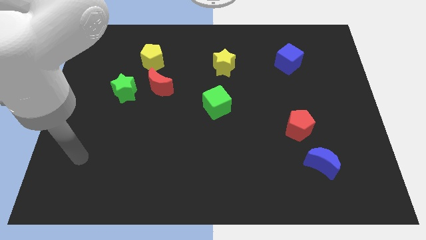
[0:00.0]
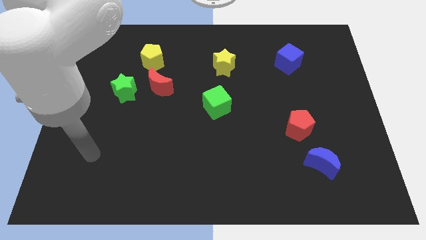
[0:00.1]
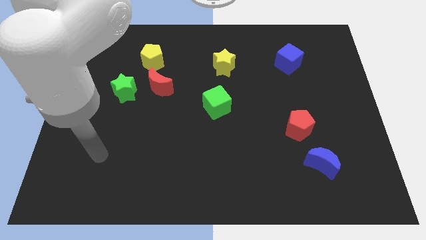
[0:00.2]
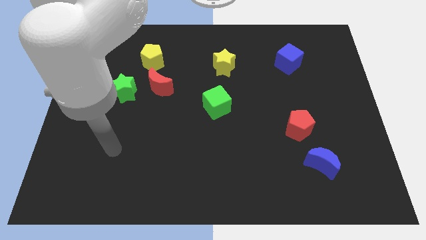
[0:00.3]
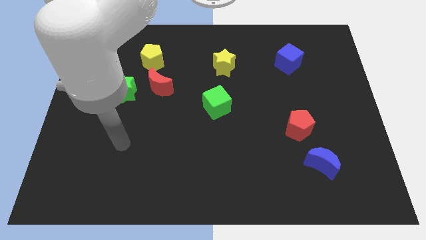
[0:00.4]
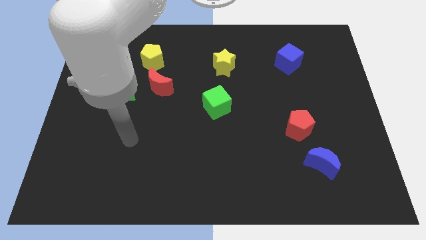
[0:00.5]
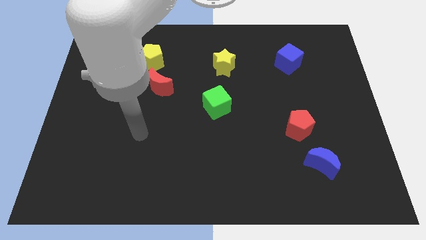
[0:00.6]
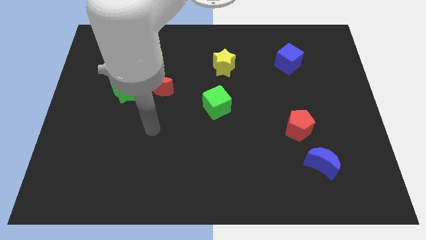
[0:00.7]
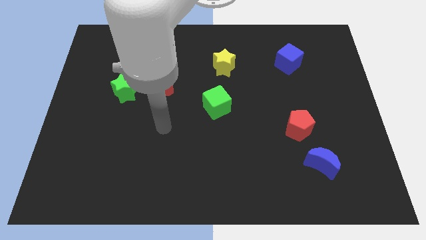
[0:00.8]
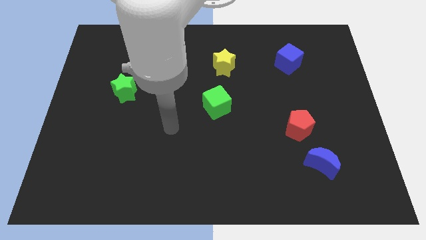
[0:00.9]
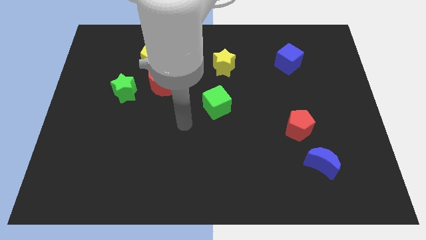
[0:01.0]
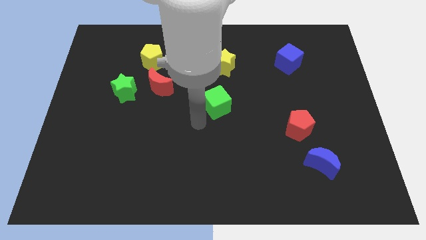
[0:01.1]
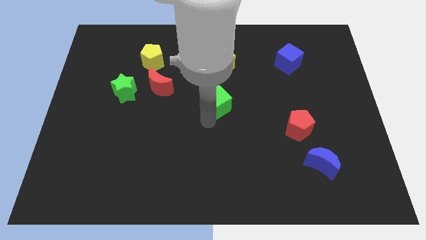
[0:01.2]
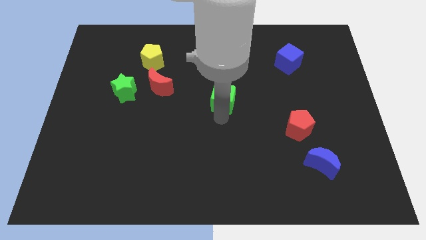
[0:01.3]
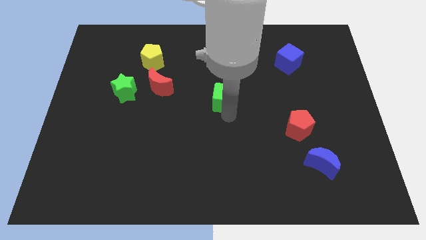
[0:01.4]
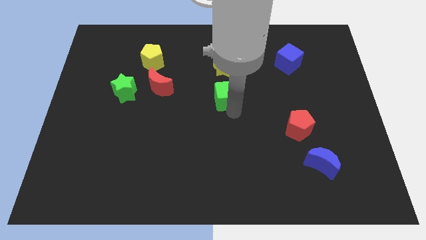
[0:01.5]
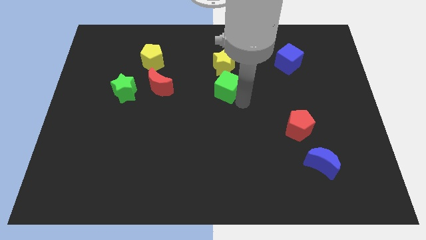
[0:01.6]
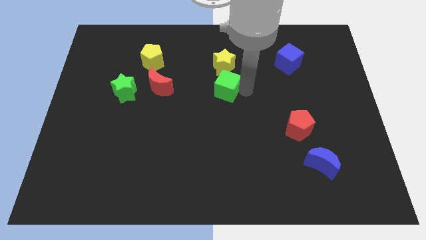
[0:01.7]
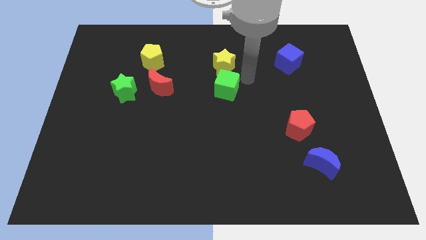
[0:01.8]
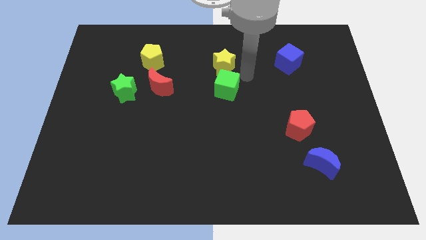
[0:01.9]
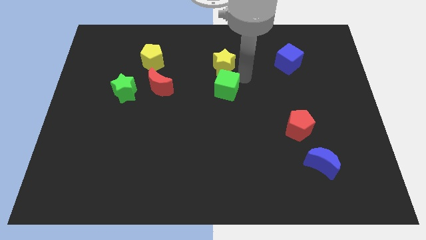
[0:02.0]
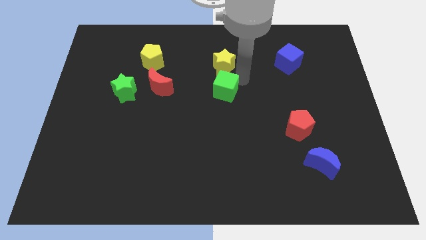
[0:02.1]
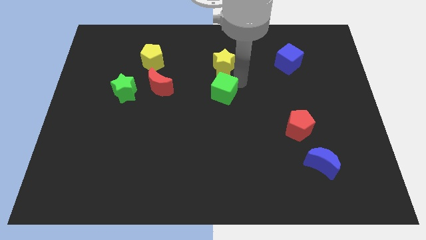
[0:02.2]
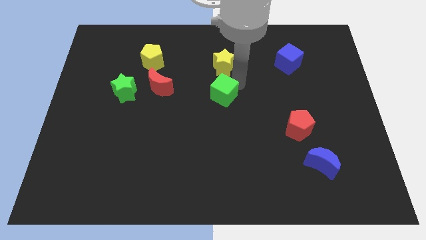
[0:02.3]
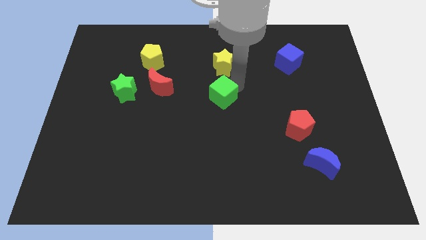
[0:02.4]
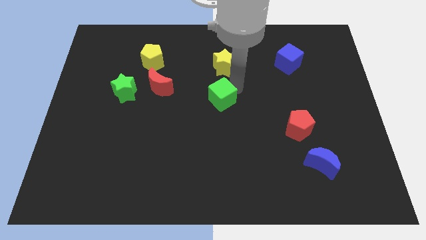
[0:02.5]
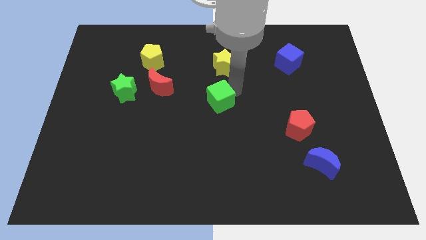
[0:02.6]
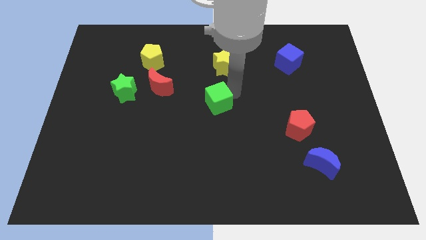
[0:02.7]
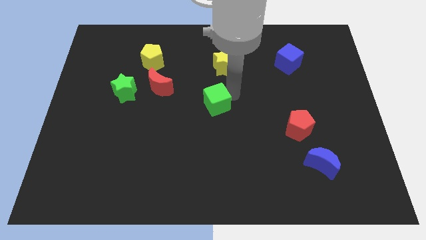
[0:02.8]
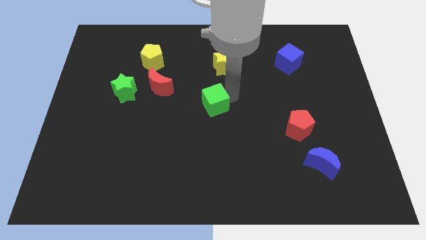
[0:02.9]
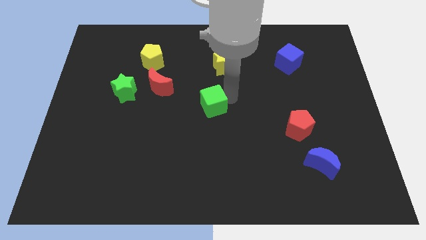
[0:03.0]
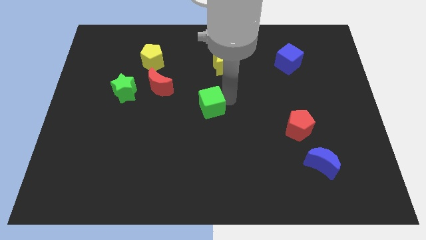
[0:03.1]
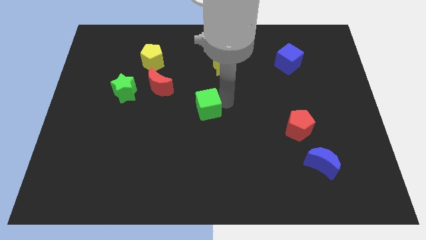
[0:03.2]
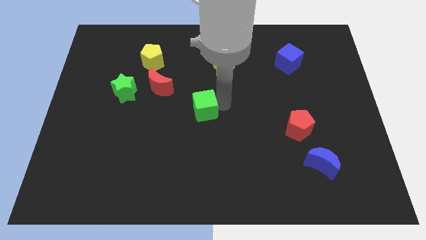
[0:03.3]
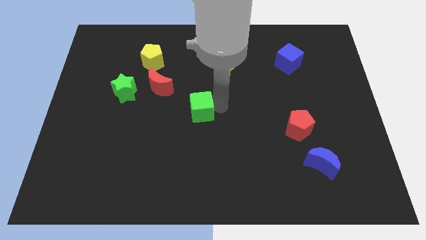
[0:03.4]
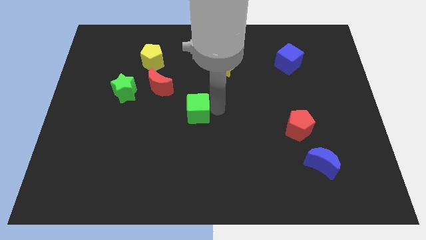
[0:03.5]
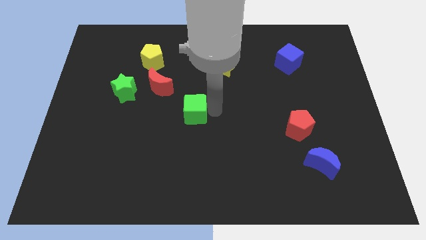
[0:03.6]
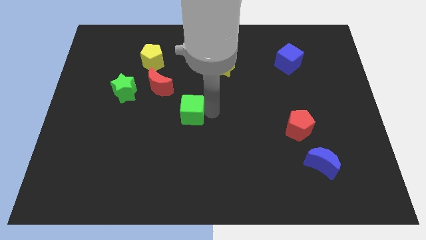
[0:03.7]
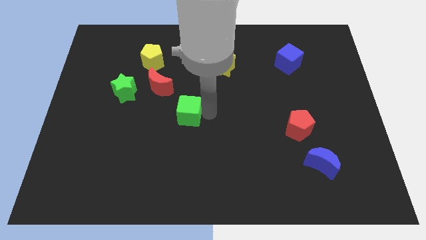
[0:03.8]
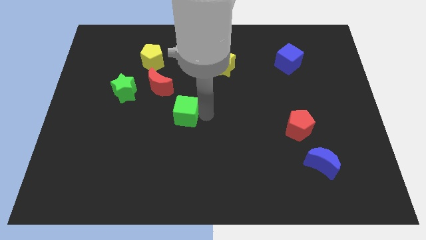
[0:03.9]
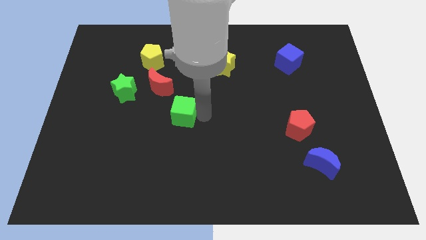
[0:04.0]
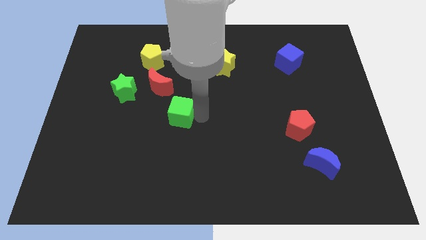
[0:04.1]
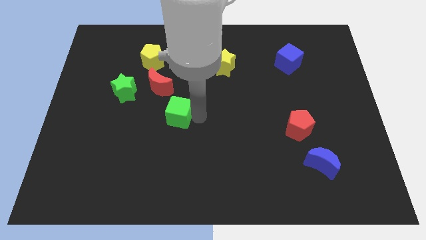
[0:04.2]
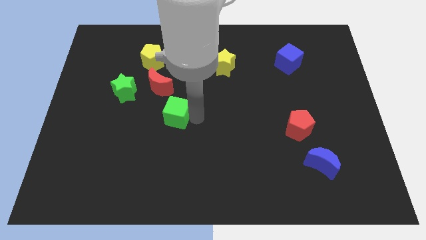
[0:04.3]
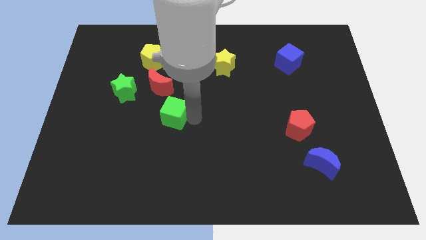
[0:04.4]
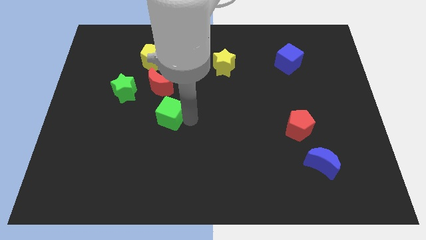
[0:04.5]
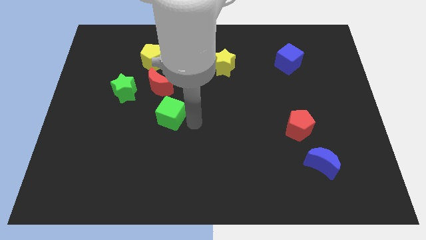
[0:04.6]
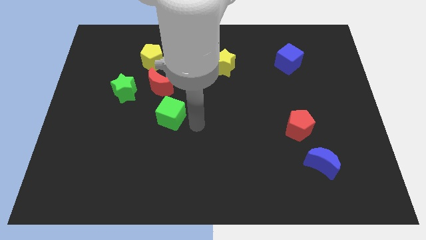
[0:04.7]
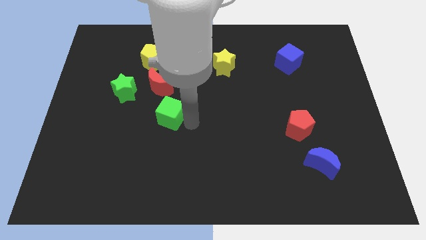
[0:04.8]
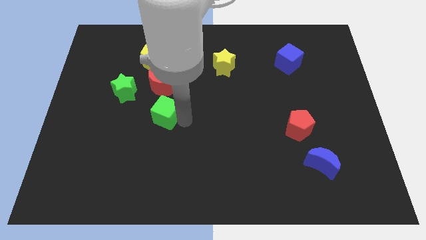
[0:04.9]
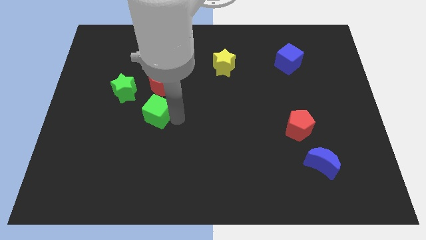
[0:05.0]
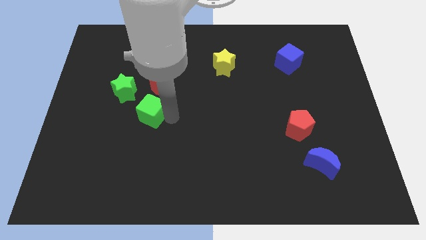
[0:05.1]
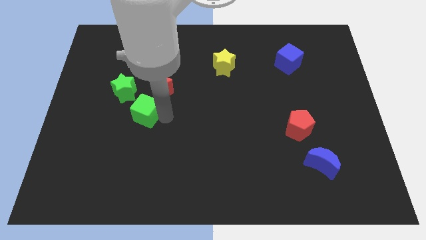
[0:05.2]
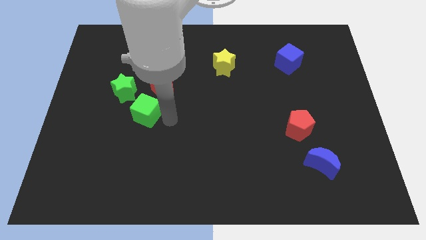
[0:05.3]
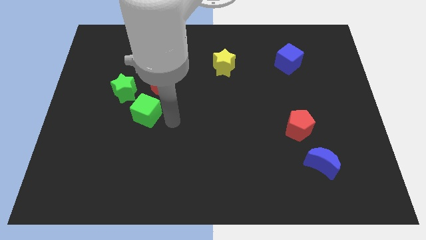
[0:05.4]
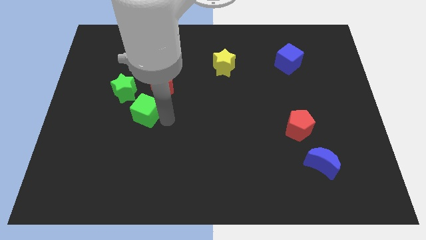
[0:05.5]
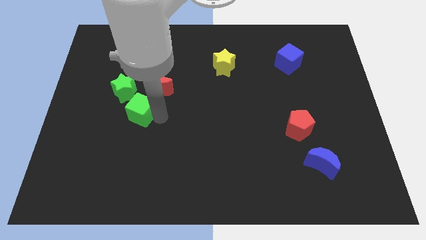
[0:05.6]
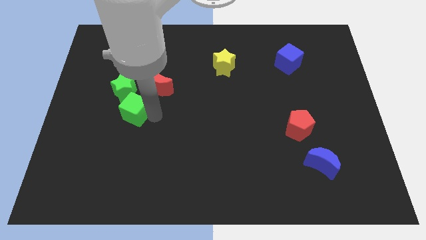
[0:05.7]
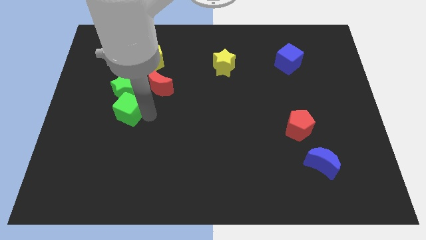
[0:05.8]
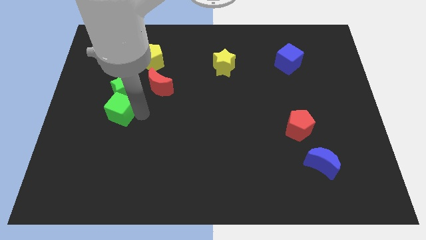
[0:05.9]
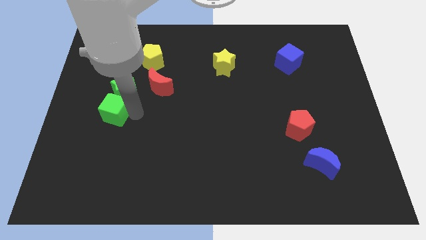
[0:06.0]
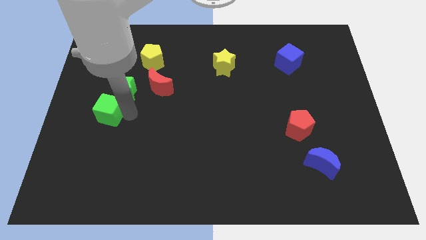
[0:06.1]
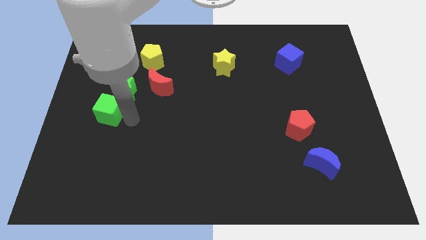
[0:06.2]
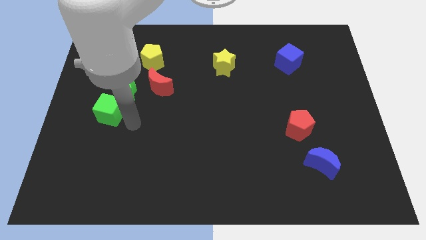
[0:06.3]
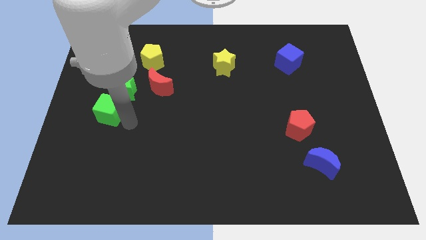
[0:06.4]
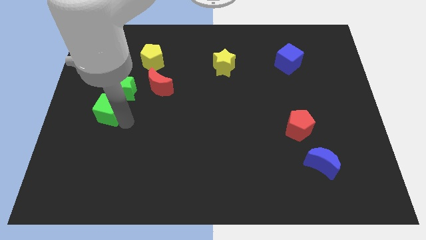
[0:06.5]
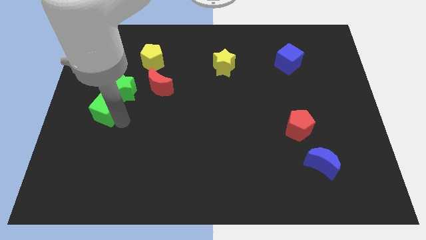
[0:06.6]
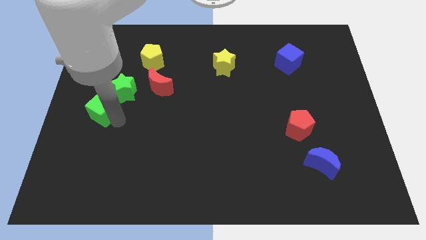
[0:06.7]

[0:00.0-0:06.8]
slide the green cube to the center left
